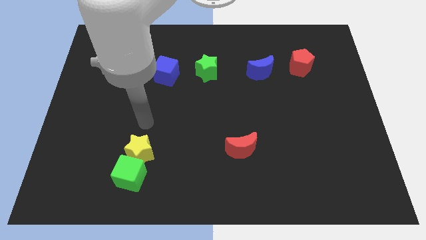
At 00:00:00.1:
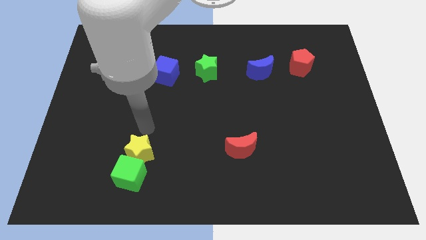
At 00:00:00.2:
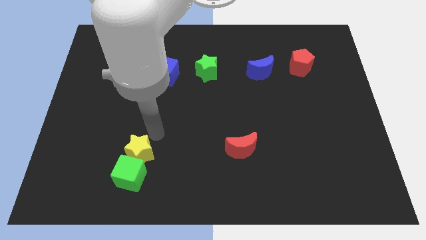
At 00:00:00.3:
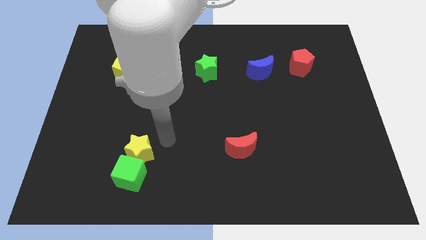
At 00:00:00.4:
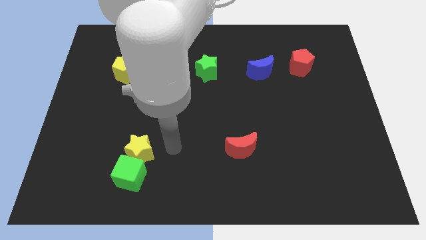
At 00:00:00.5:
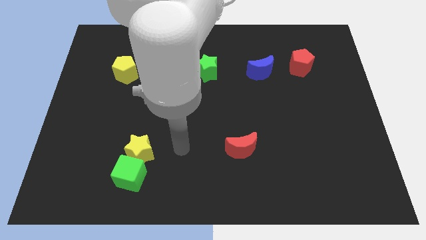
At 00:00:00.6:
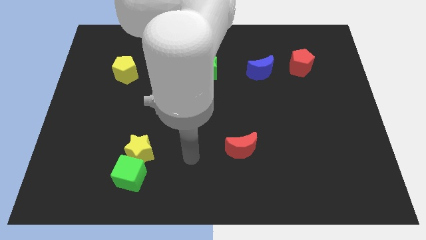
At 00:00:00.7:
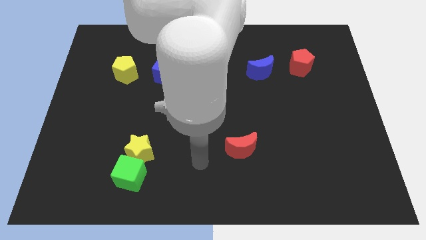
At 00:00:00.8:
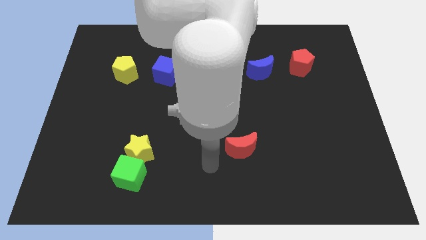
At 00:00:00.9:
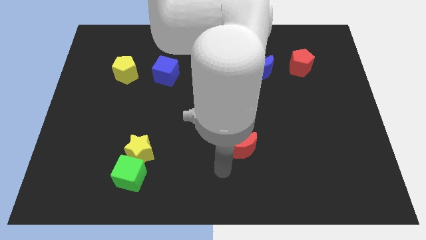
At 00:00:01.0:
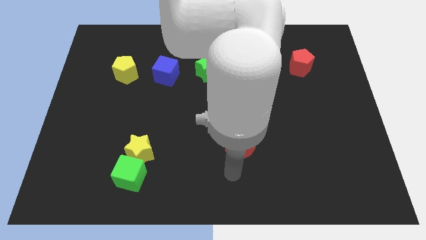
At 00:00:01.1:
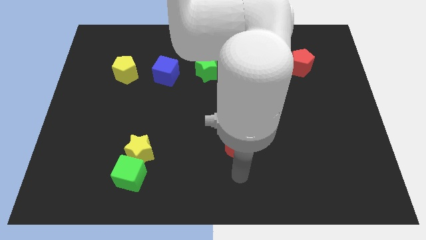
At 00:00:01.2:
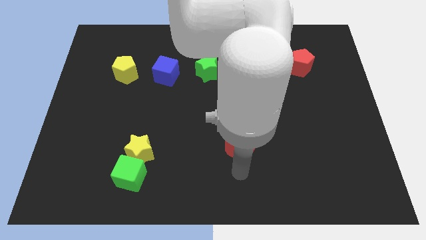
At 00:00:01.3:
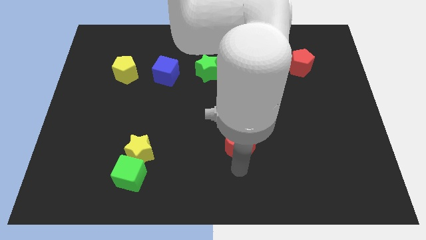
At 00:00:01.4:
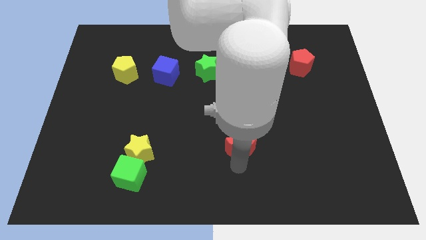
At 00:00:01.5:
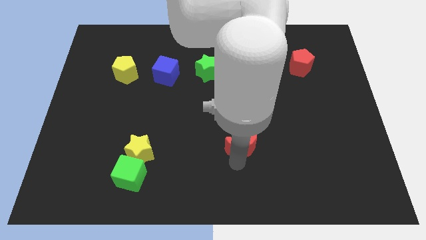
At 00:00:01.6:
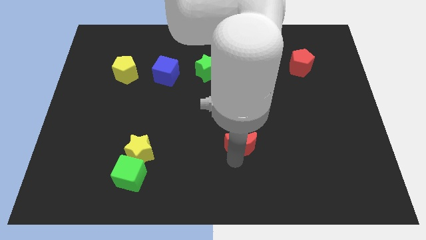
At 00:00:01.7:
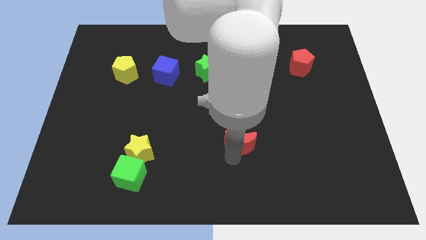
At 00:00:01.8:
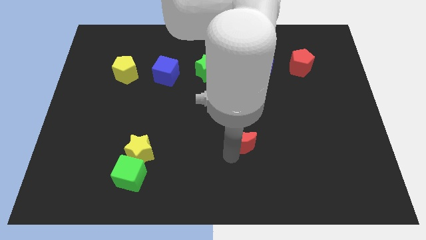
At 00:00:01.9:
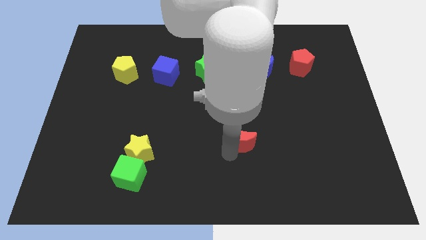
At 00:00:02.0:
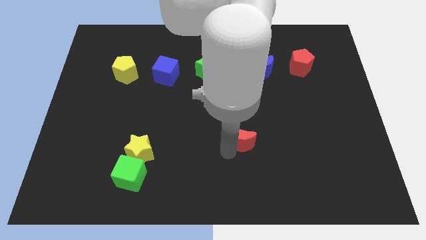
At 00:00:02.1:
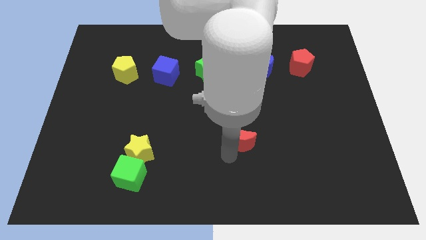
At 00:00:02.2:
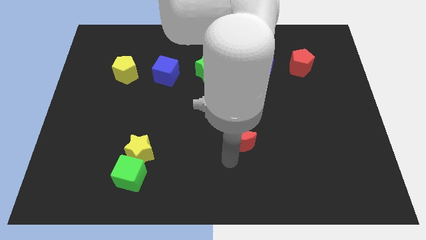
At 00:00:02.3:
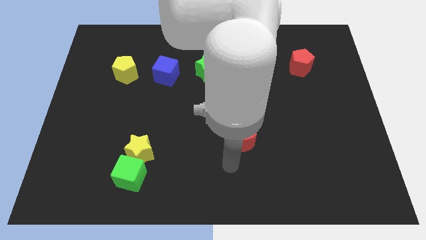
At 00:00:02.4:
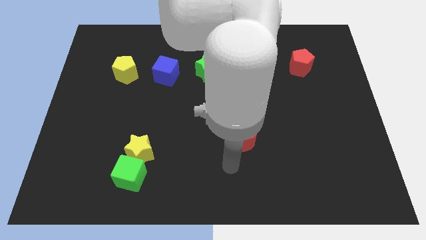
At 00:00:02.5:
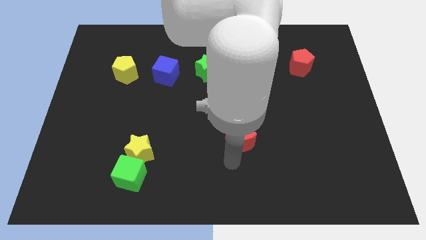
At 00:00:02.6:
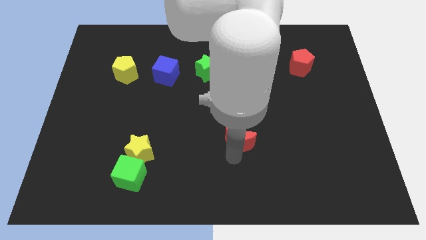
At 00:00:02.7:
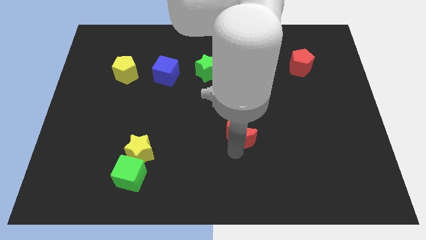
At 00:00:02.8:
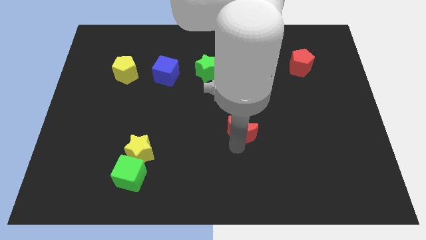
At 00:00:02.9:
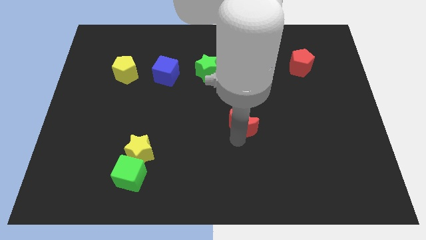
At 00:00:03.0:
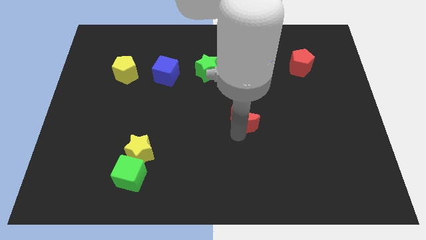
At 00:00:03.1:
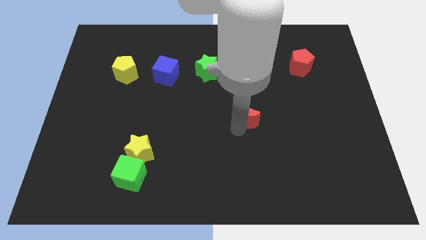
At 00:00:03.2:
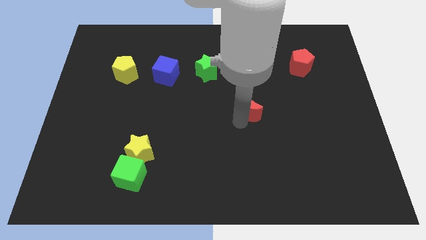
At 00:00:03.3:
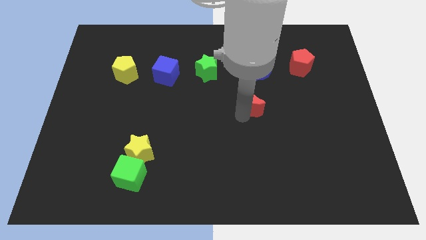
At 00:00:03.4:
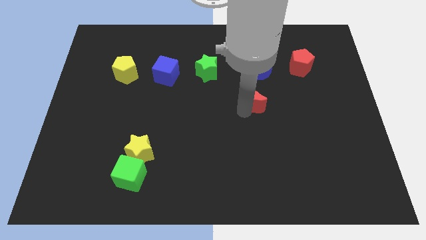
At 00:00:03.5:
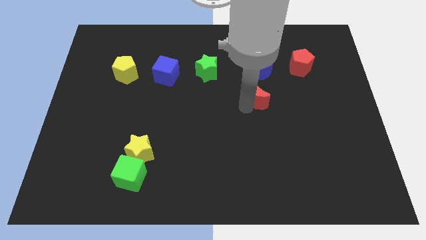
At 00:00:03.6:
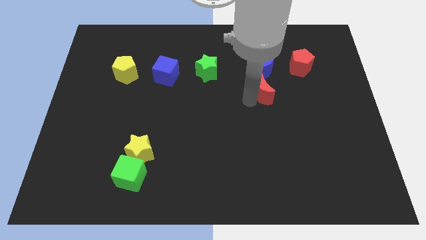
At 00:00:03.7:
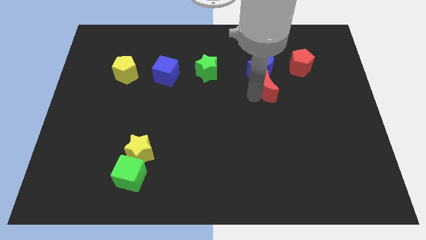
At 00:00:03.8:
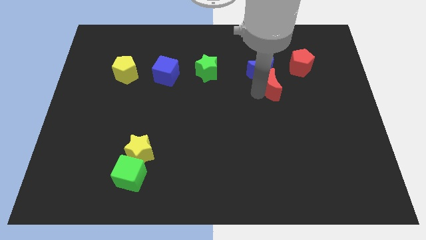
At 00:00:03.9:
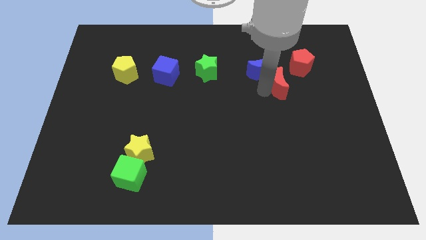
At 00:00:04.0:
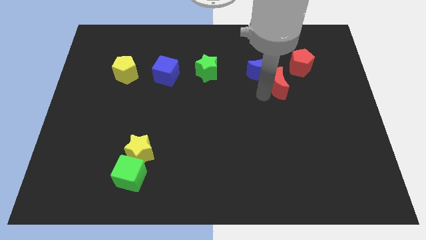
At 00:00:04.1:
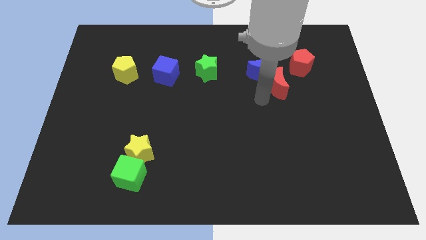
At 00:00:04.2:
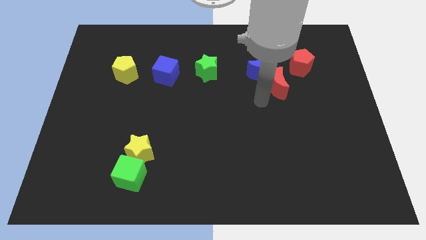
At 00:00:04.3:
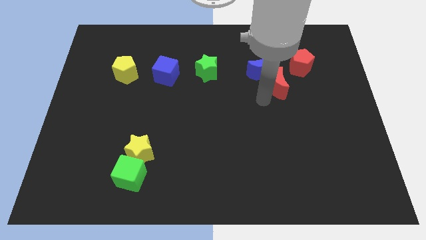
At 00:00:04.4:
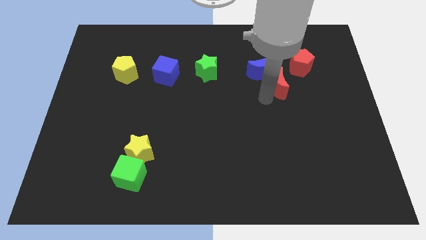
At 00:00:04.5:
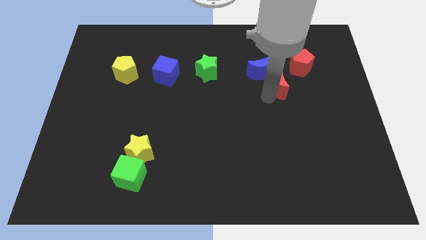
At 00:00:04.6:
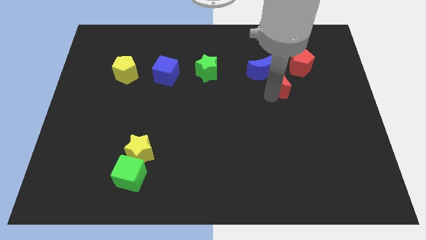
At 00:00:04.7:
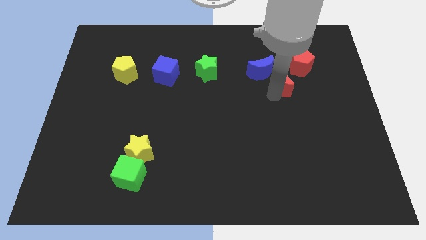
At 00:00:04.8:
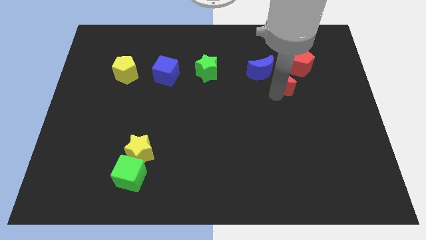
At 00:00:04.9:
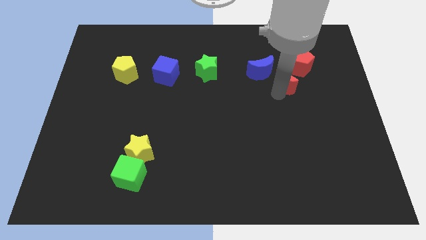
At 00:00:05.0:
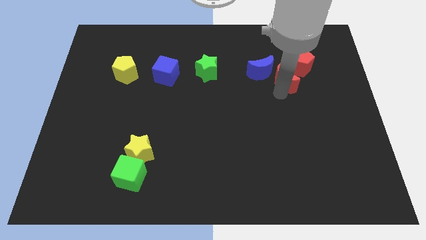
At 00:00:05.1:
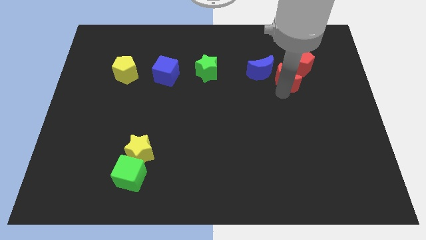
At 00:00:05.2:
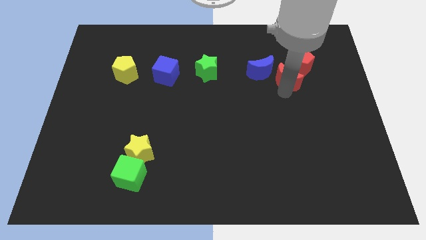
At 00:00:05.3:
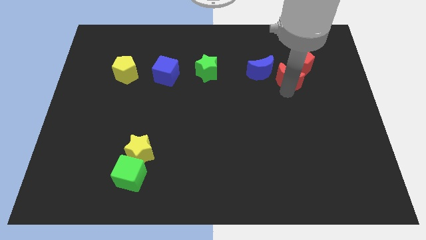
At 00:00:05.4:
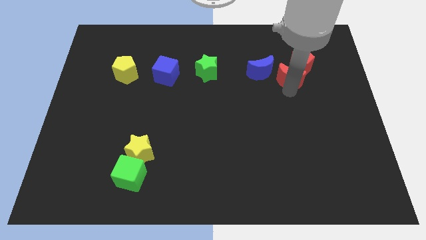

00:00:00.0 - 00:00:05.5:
move the red moon towards the red pentagon

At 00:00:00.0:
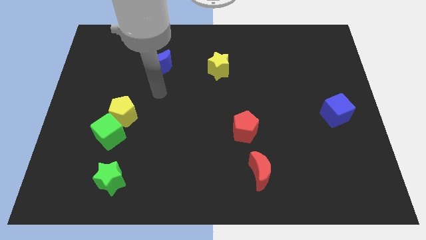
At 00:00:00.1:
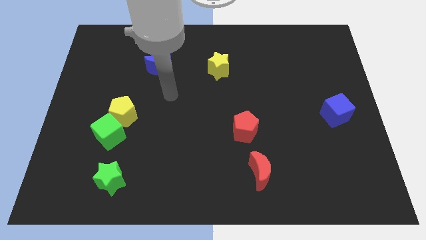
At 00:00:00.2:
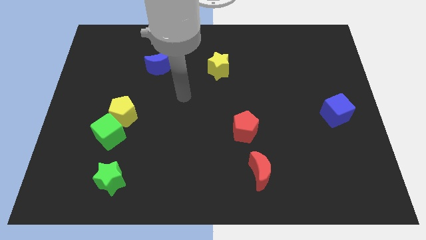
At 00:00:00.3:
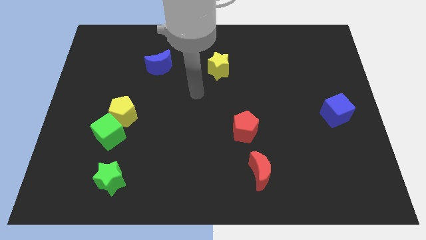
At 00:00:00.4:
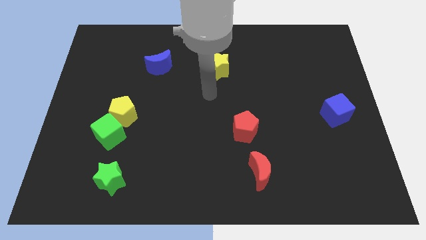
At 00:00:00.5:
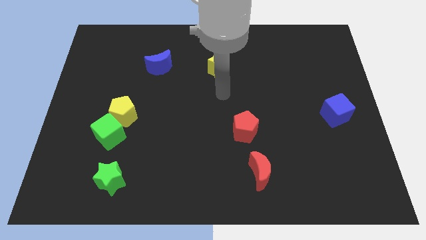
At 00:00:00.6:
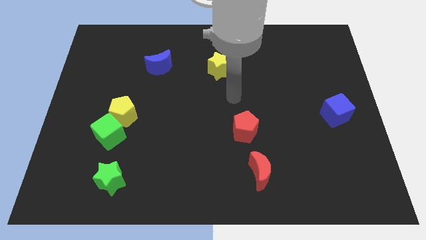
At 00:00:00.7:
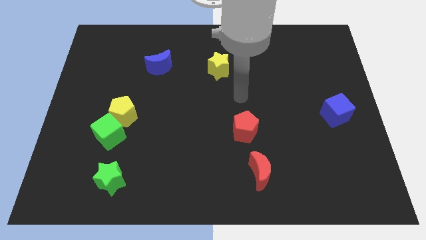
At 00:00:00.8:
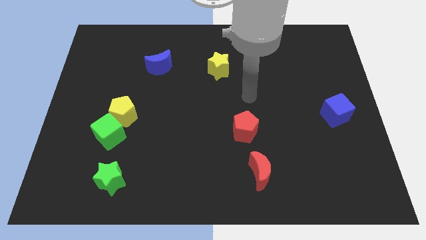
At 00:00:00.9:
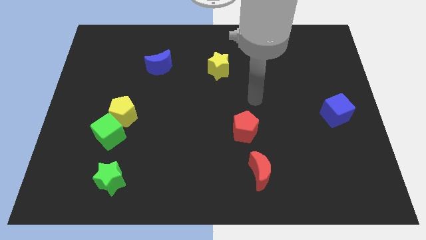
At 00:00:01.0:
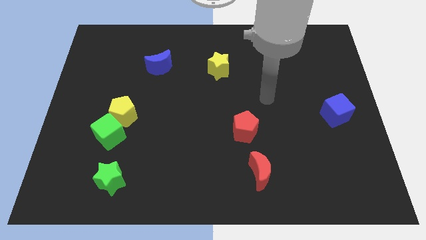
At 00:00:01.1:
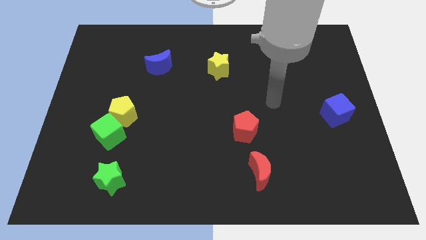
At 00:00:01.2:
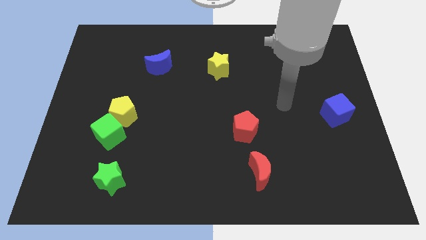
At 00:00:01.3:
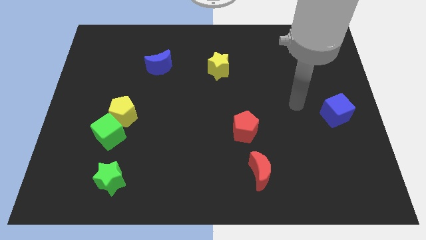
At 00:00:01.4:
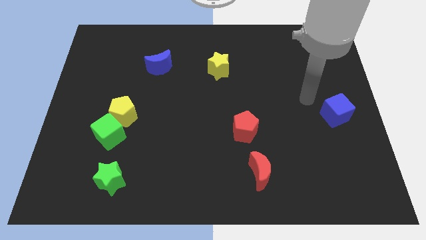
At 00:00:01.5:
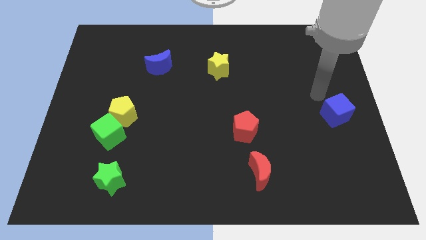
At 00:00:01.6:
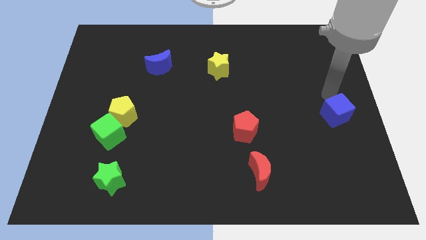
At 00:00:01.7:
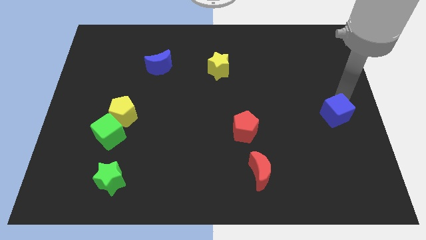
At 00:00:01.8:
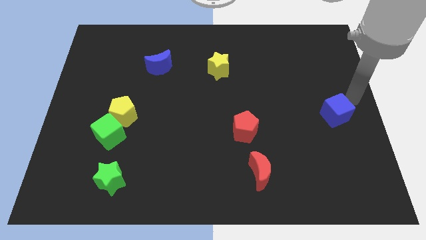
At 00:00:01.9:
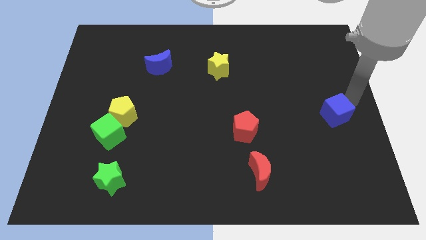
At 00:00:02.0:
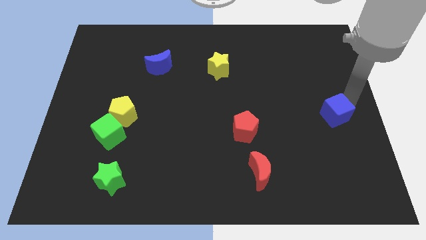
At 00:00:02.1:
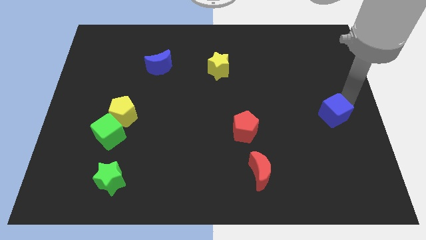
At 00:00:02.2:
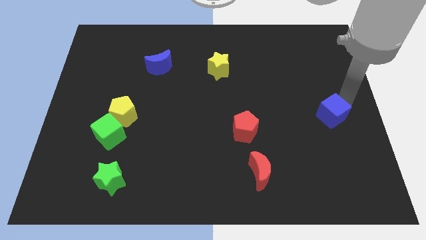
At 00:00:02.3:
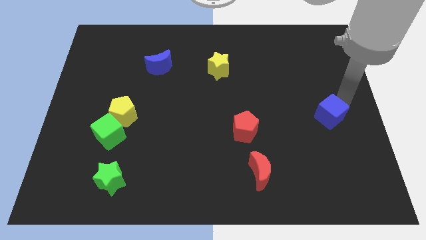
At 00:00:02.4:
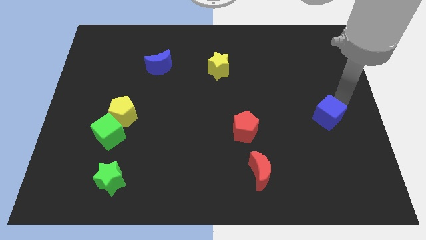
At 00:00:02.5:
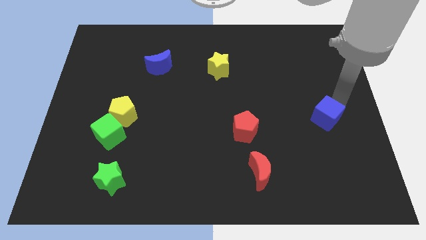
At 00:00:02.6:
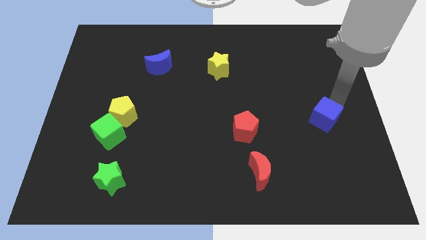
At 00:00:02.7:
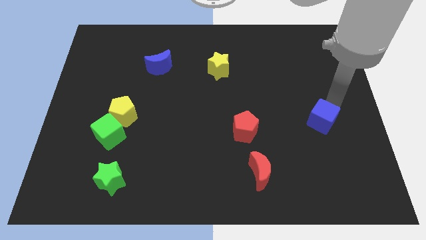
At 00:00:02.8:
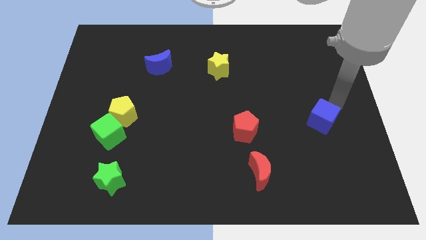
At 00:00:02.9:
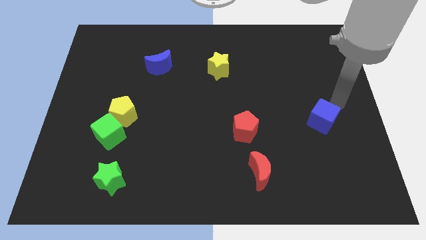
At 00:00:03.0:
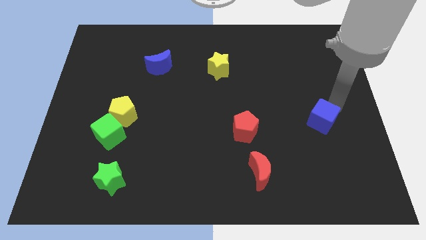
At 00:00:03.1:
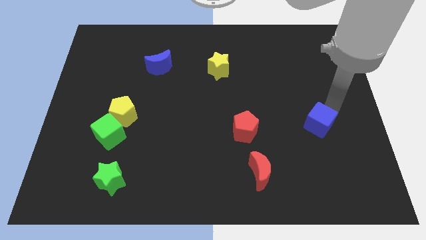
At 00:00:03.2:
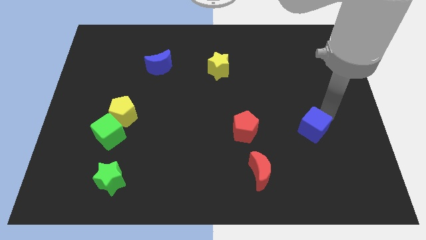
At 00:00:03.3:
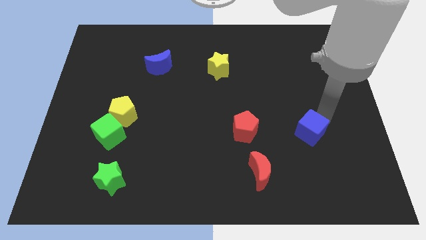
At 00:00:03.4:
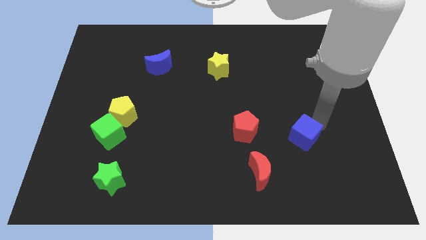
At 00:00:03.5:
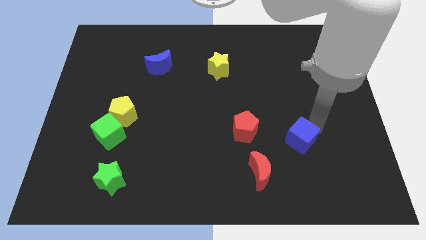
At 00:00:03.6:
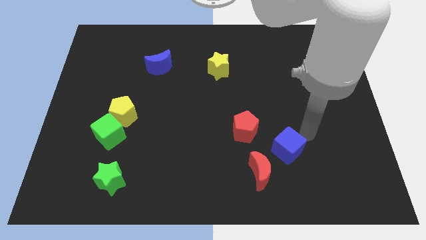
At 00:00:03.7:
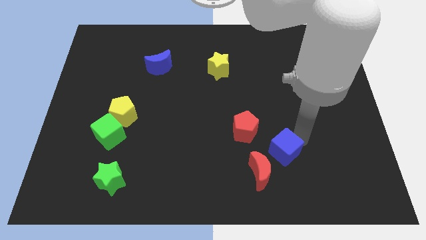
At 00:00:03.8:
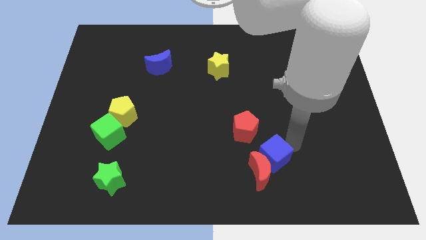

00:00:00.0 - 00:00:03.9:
put the blue cube close to the red moon
